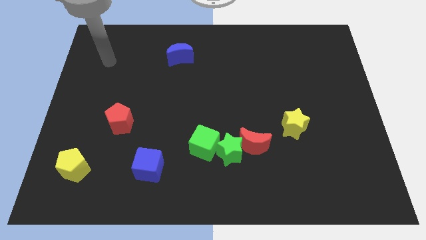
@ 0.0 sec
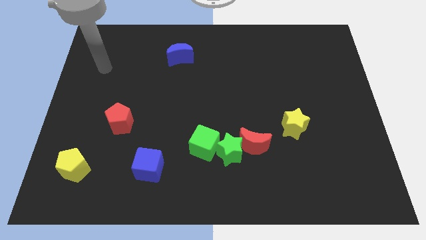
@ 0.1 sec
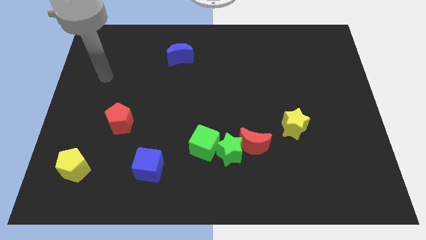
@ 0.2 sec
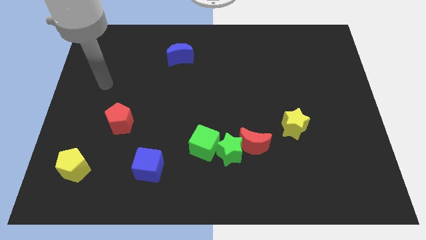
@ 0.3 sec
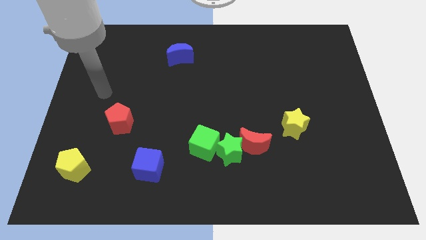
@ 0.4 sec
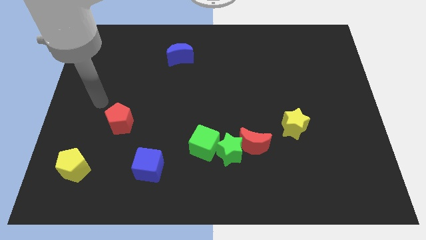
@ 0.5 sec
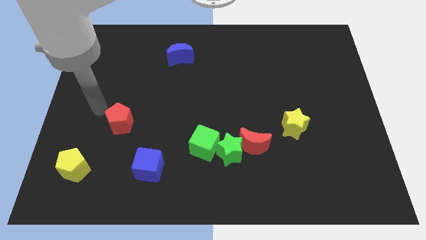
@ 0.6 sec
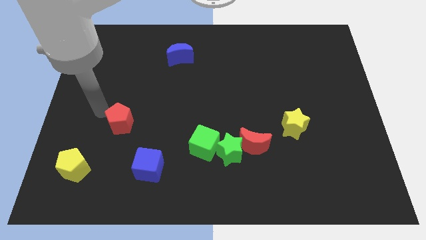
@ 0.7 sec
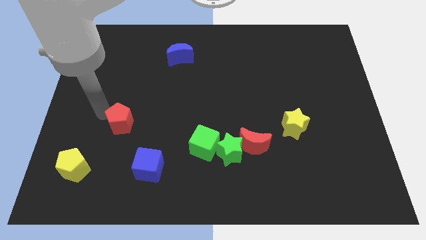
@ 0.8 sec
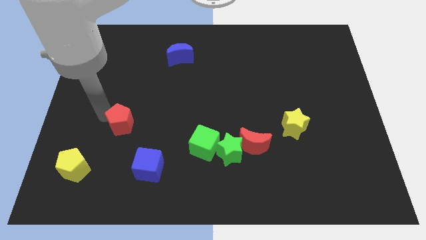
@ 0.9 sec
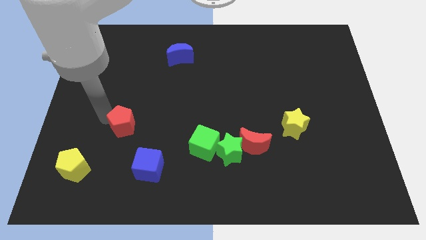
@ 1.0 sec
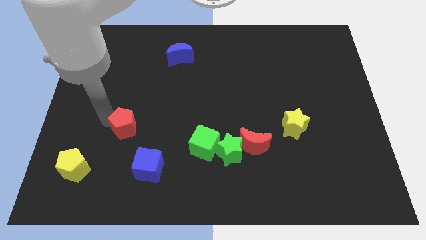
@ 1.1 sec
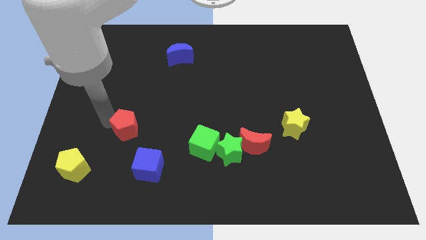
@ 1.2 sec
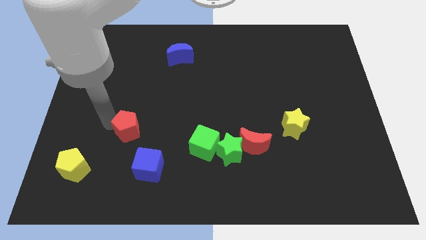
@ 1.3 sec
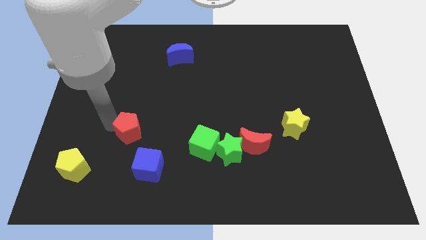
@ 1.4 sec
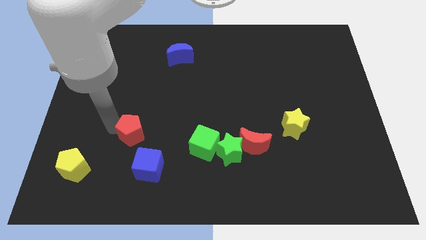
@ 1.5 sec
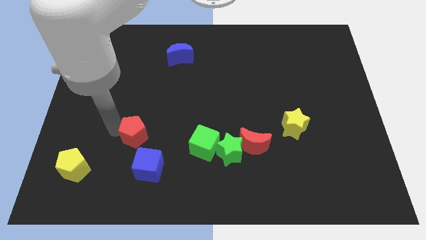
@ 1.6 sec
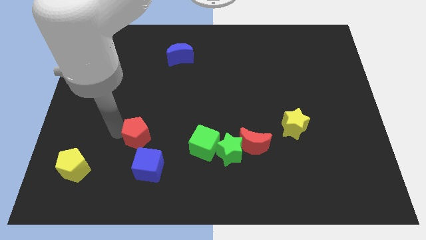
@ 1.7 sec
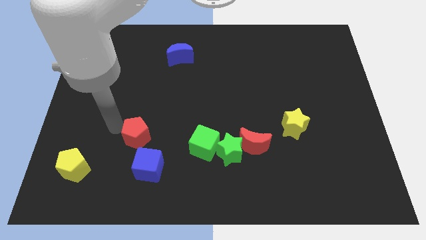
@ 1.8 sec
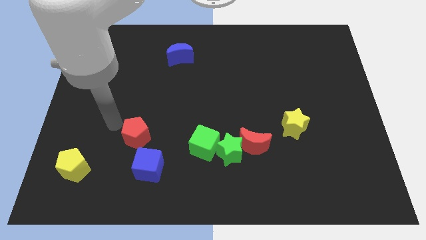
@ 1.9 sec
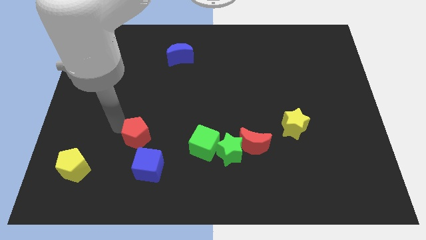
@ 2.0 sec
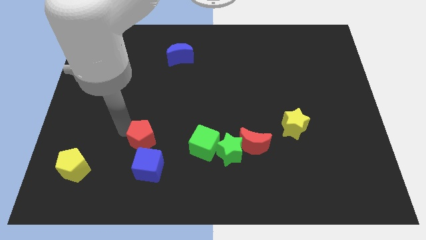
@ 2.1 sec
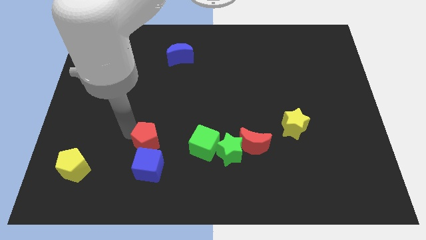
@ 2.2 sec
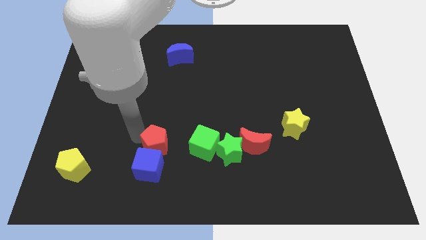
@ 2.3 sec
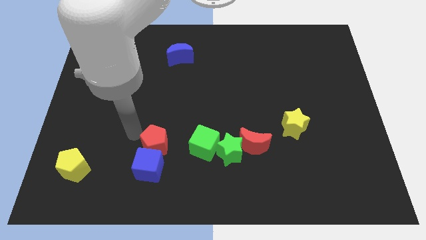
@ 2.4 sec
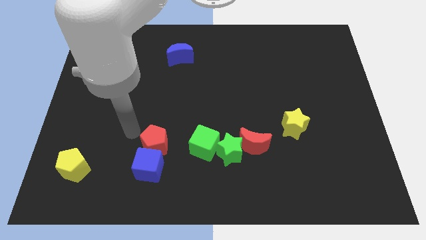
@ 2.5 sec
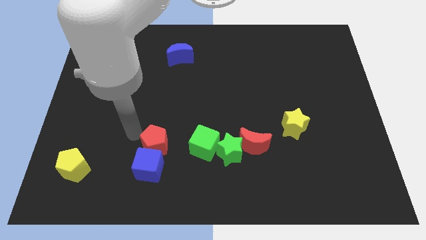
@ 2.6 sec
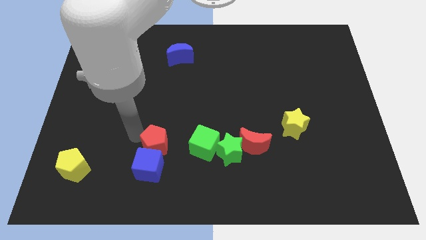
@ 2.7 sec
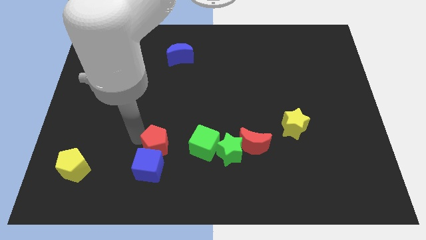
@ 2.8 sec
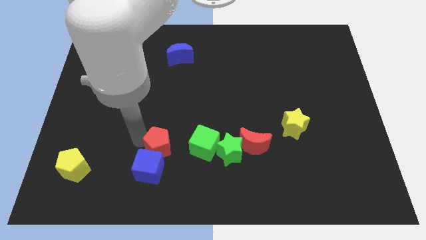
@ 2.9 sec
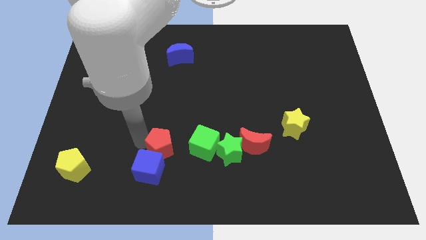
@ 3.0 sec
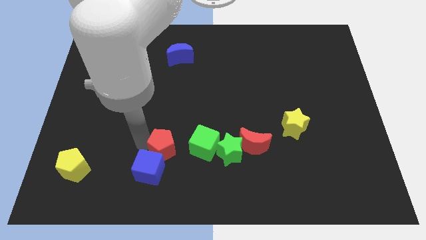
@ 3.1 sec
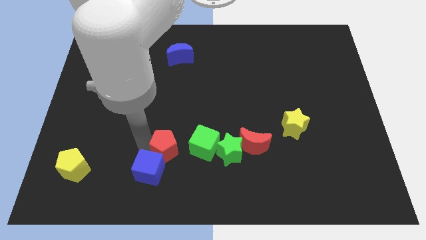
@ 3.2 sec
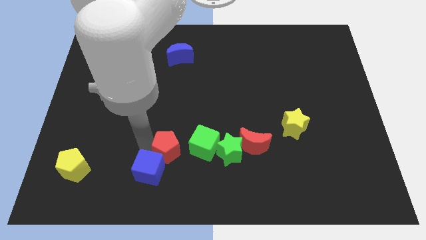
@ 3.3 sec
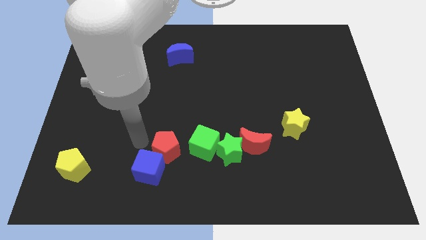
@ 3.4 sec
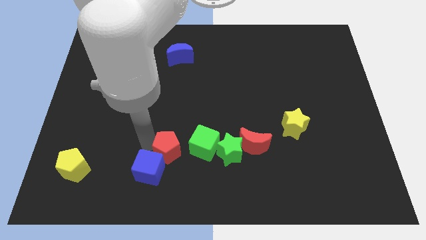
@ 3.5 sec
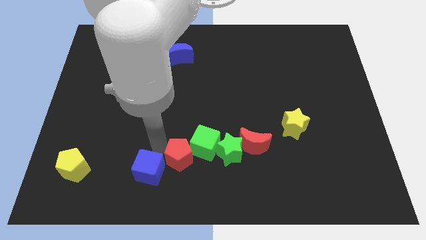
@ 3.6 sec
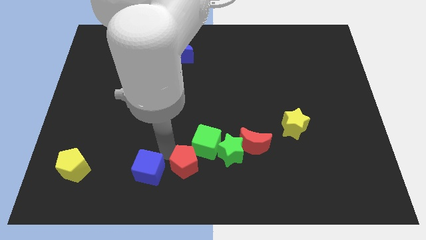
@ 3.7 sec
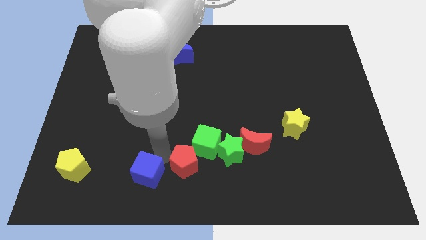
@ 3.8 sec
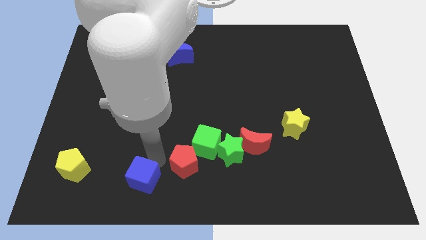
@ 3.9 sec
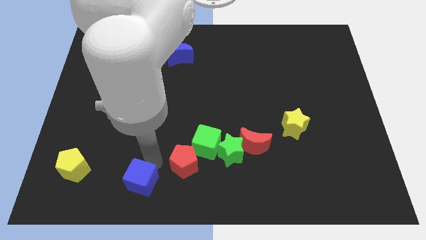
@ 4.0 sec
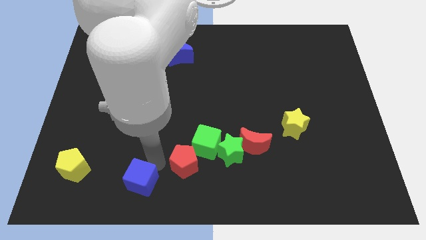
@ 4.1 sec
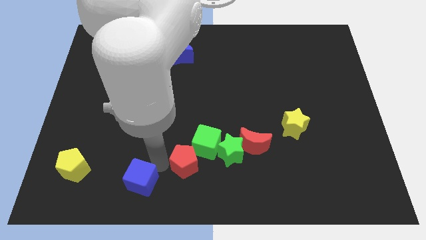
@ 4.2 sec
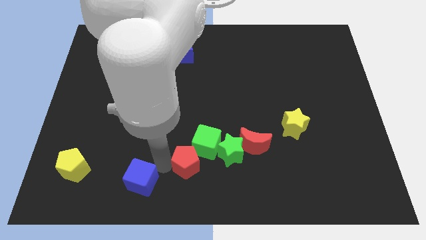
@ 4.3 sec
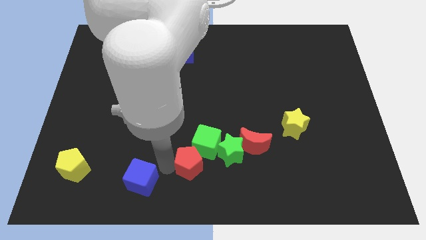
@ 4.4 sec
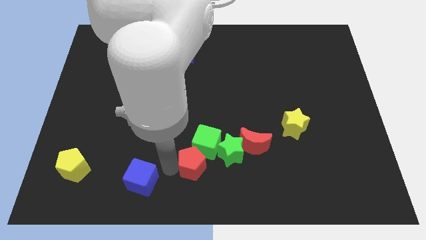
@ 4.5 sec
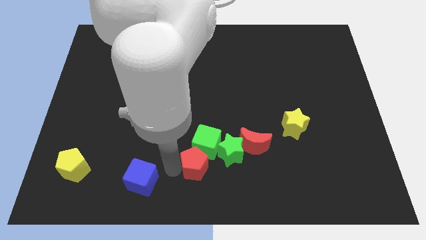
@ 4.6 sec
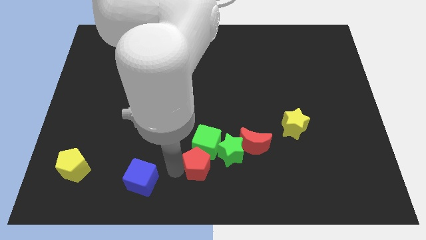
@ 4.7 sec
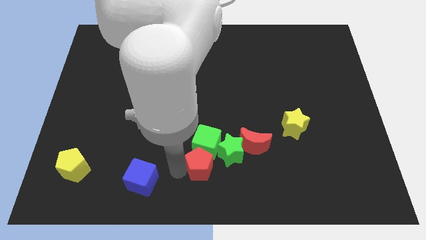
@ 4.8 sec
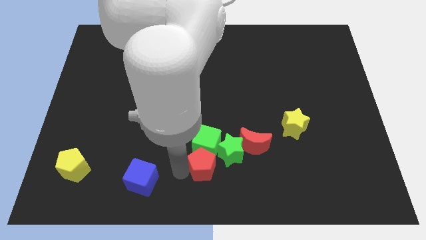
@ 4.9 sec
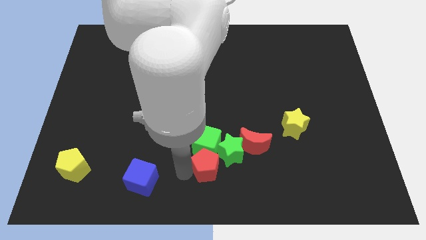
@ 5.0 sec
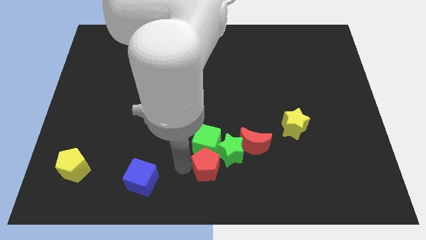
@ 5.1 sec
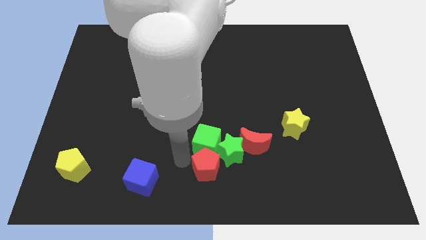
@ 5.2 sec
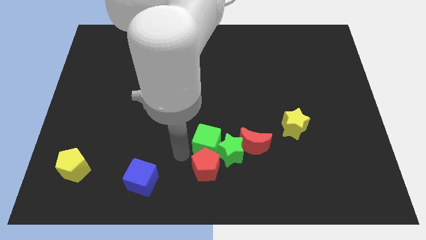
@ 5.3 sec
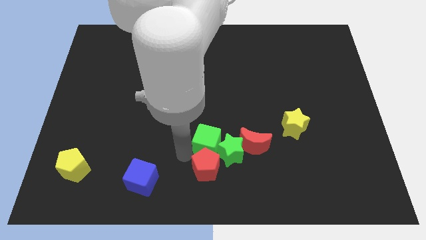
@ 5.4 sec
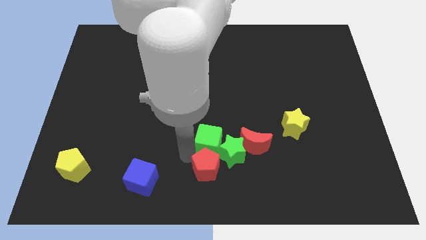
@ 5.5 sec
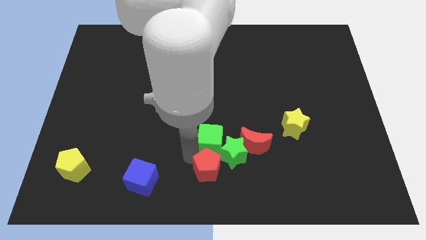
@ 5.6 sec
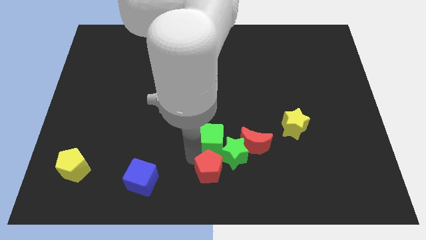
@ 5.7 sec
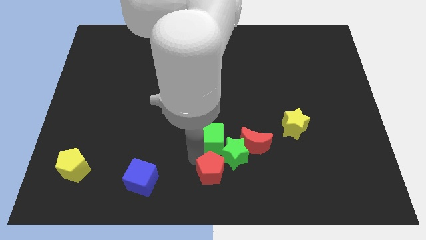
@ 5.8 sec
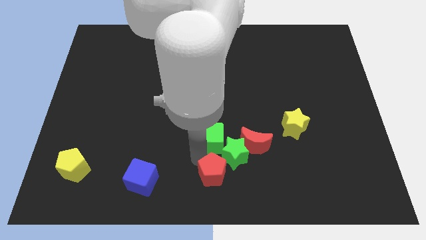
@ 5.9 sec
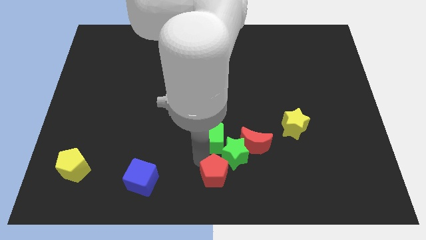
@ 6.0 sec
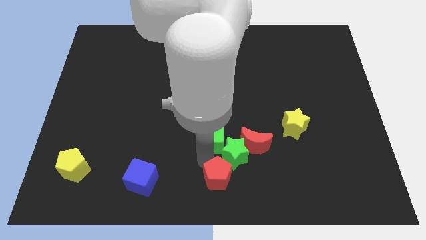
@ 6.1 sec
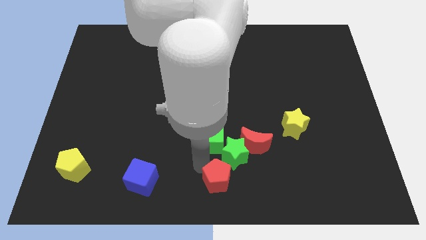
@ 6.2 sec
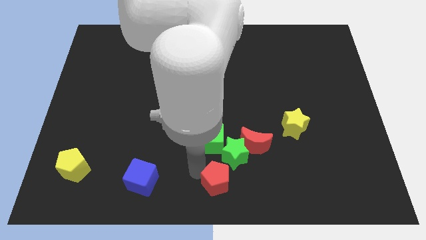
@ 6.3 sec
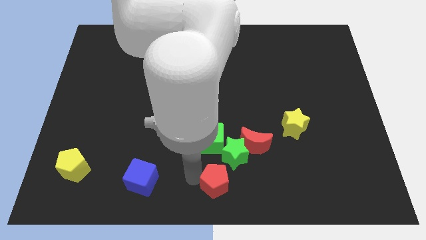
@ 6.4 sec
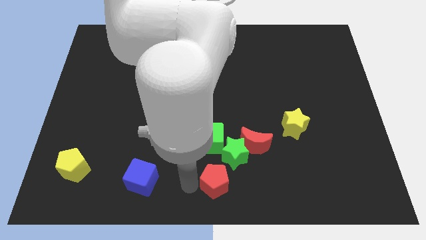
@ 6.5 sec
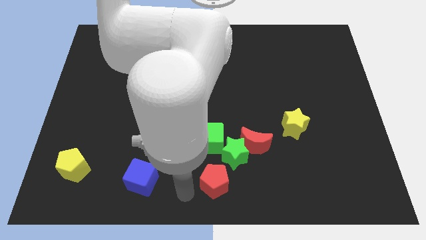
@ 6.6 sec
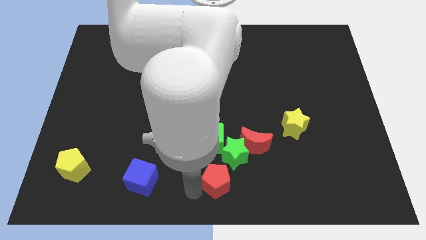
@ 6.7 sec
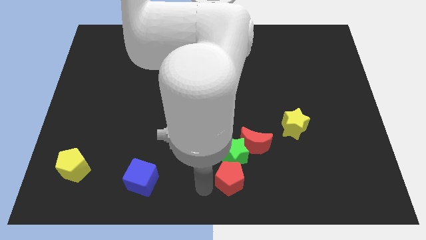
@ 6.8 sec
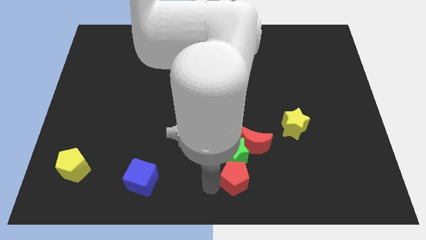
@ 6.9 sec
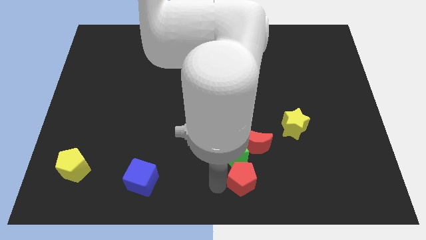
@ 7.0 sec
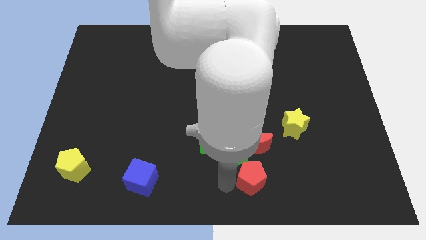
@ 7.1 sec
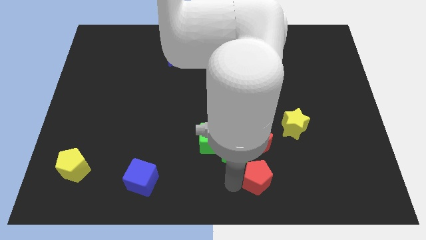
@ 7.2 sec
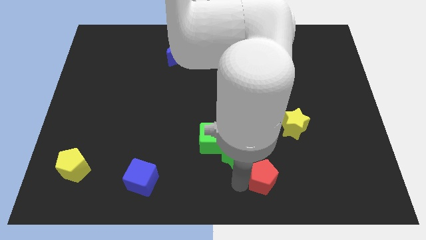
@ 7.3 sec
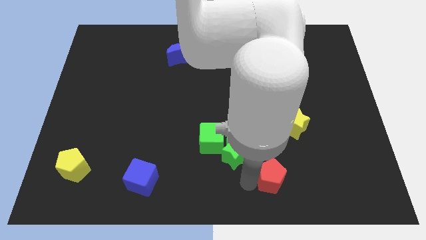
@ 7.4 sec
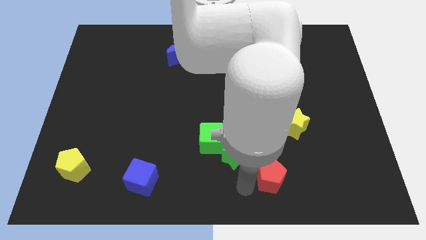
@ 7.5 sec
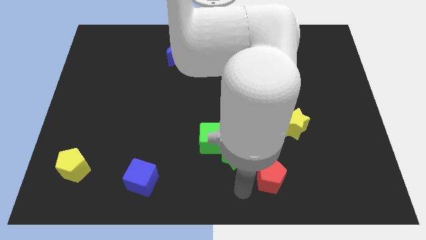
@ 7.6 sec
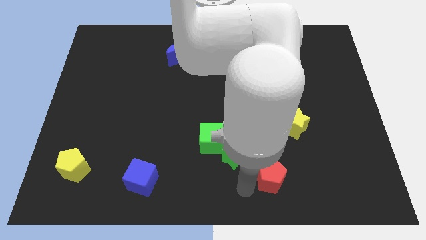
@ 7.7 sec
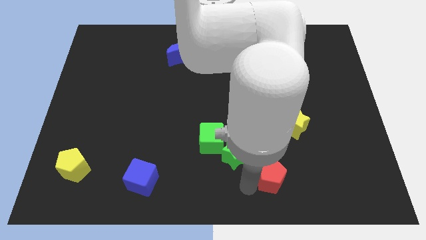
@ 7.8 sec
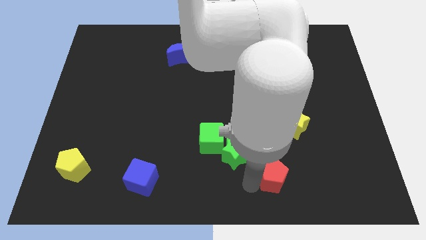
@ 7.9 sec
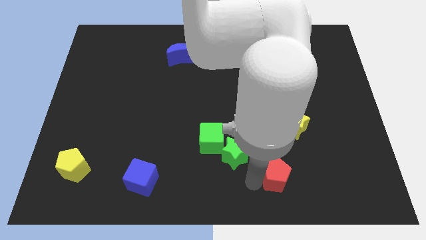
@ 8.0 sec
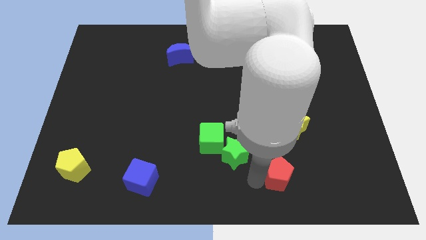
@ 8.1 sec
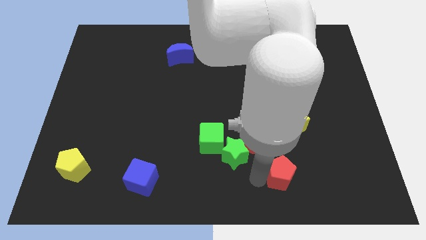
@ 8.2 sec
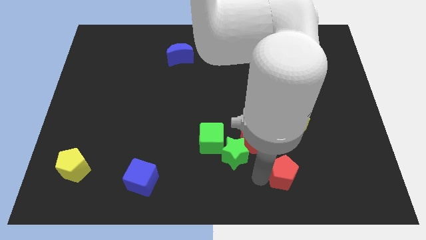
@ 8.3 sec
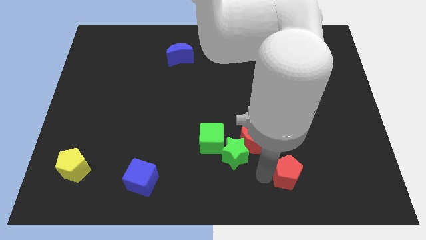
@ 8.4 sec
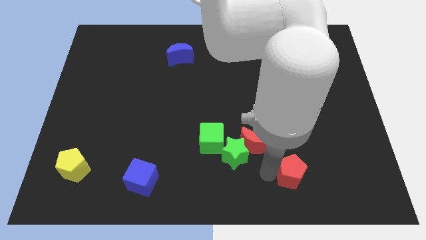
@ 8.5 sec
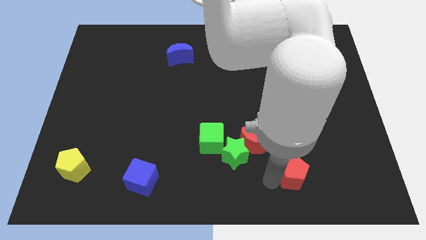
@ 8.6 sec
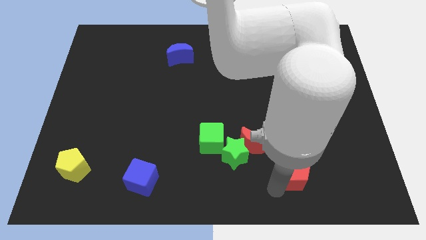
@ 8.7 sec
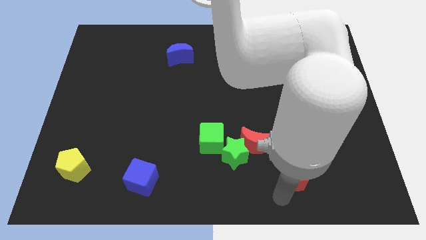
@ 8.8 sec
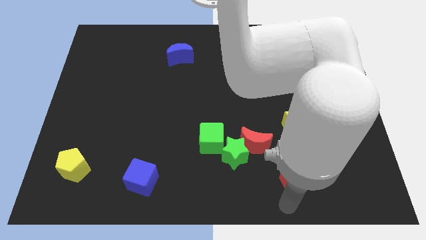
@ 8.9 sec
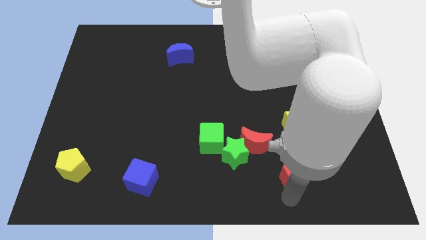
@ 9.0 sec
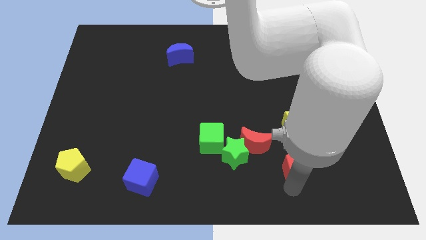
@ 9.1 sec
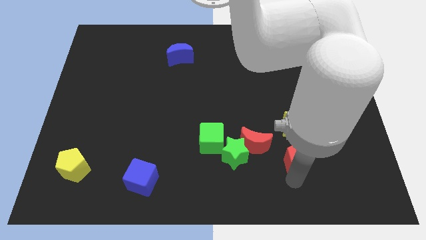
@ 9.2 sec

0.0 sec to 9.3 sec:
put the red pentagon right of the red moon
